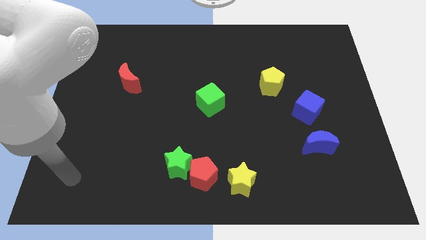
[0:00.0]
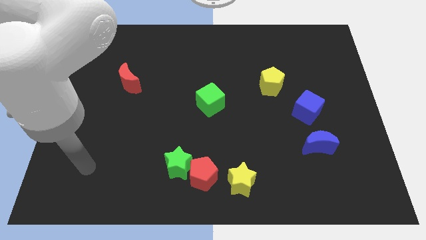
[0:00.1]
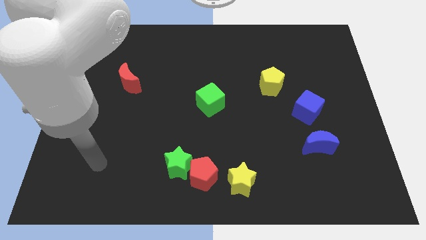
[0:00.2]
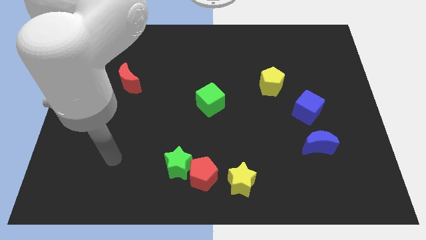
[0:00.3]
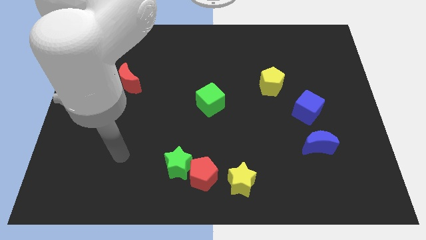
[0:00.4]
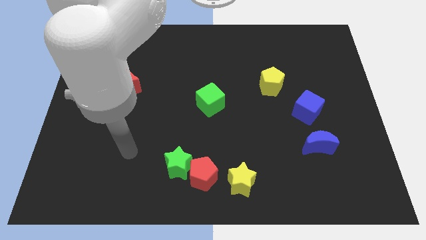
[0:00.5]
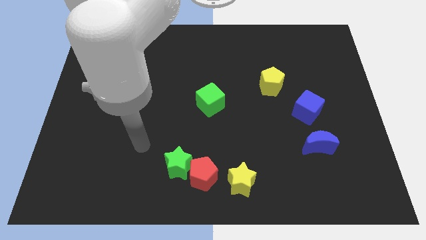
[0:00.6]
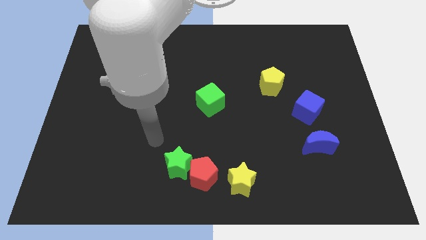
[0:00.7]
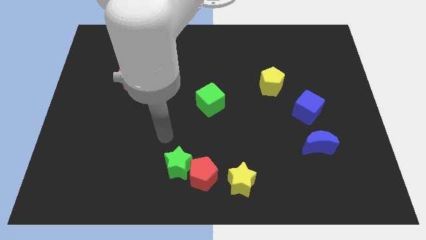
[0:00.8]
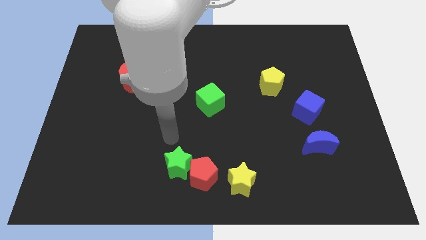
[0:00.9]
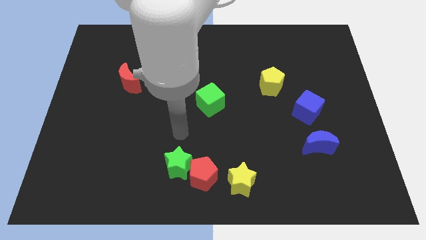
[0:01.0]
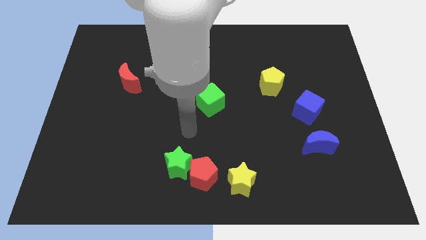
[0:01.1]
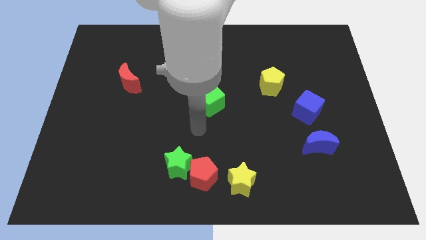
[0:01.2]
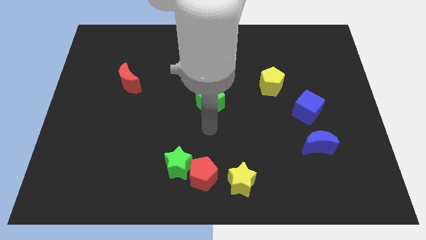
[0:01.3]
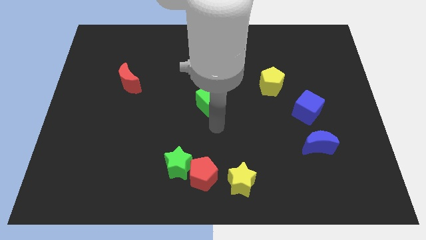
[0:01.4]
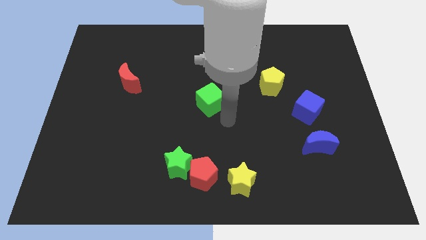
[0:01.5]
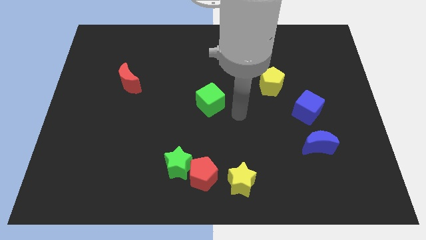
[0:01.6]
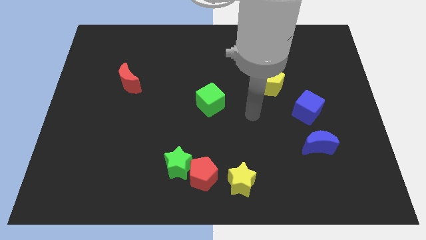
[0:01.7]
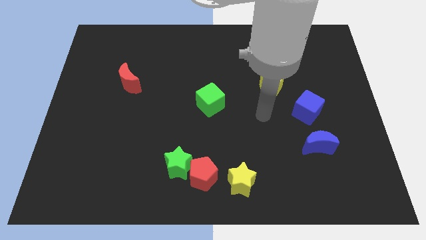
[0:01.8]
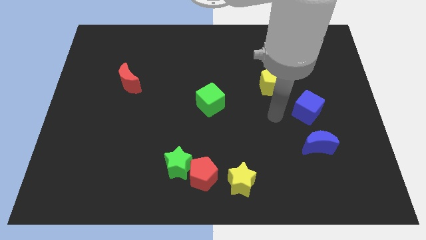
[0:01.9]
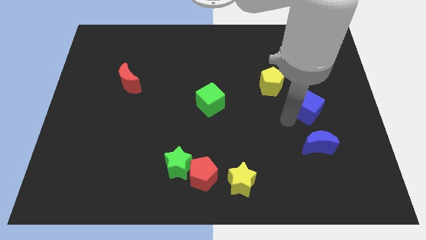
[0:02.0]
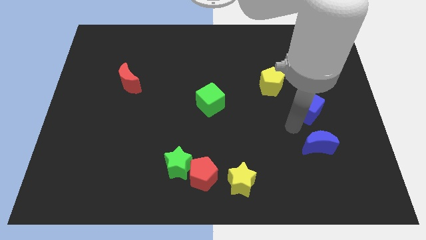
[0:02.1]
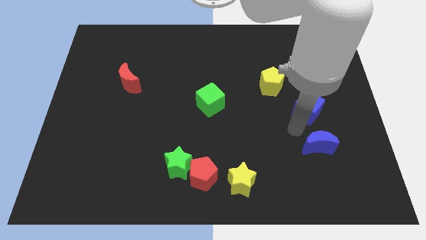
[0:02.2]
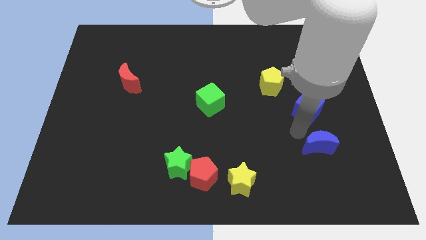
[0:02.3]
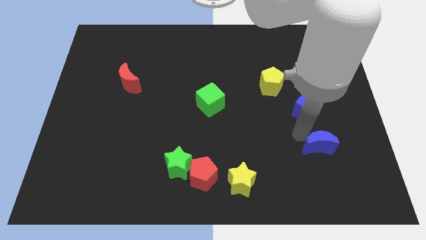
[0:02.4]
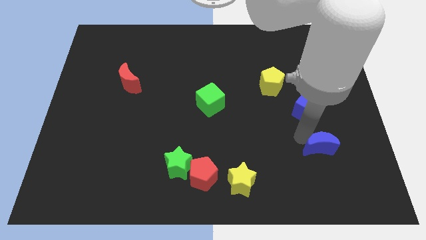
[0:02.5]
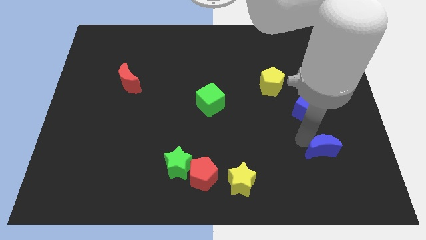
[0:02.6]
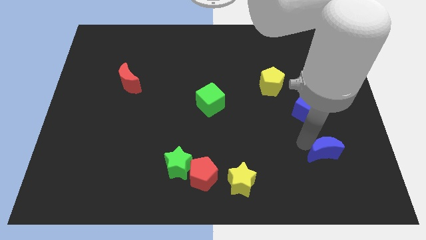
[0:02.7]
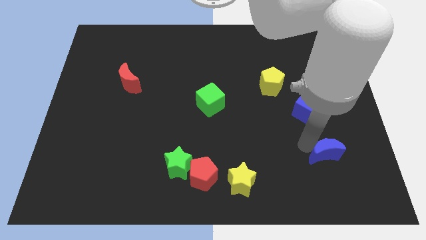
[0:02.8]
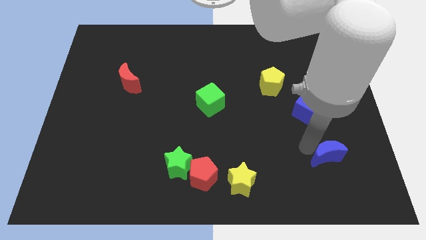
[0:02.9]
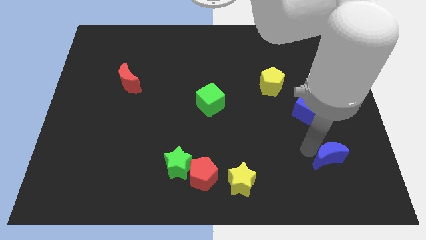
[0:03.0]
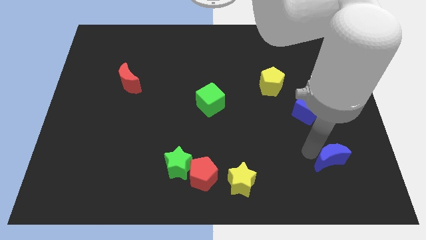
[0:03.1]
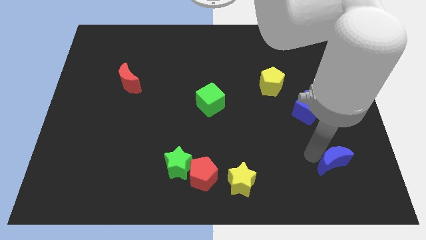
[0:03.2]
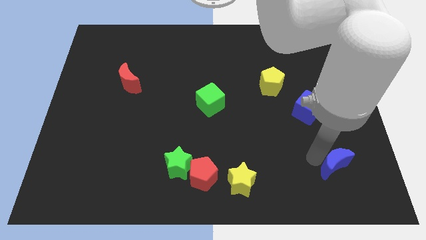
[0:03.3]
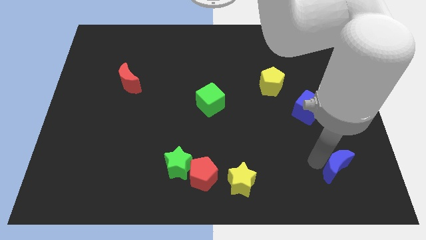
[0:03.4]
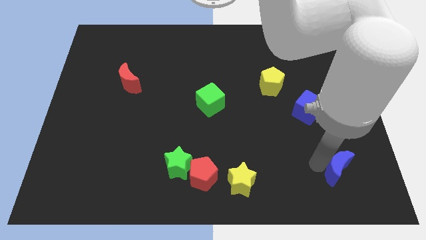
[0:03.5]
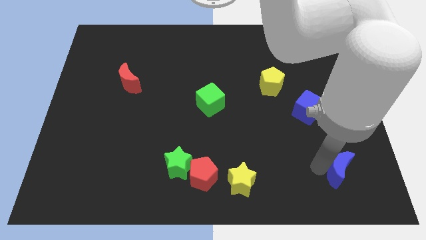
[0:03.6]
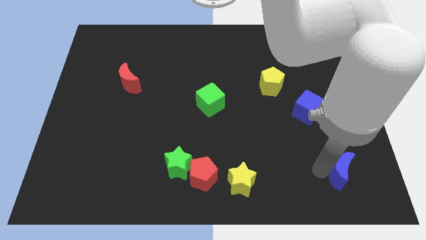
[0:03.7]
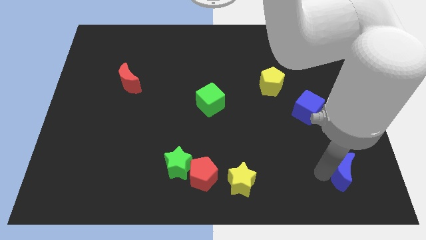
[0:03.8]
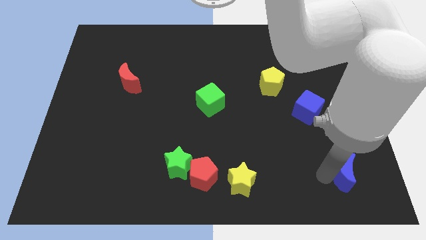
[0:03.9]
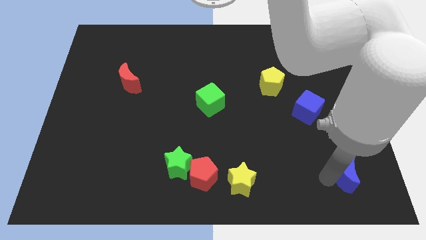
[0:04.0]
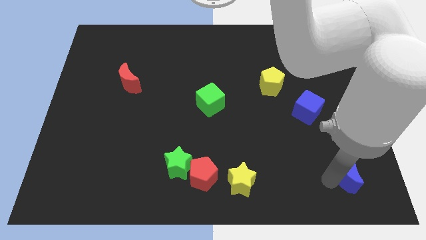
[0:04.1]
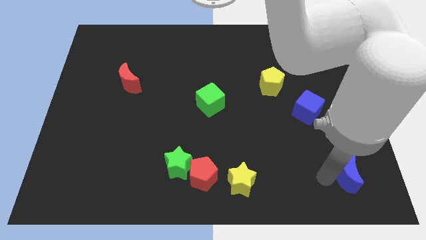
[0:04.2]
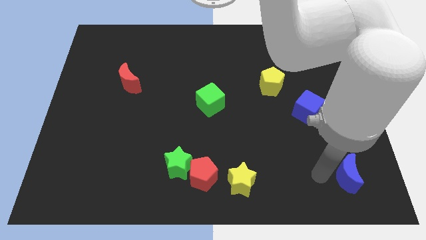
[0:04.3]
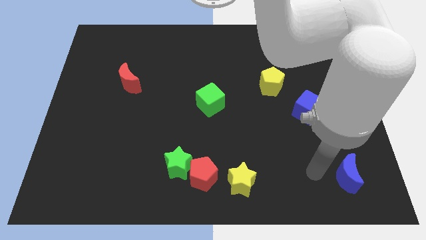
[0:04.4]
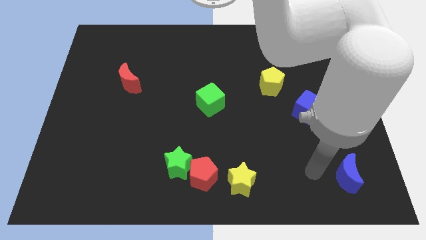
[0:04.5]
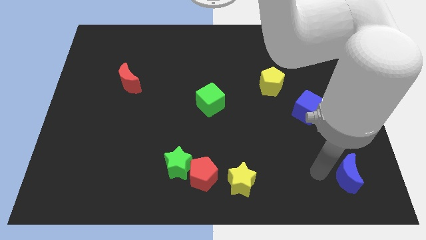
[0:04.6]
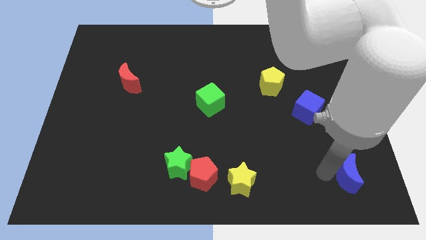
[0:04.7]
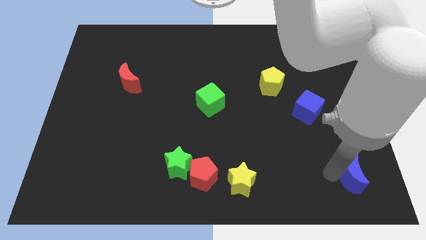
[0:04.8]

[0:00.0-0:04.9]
move the blue moon to the bottom right

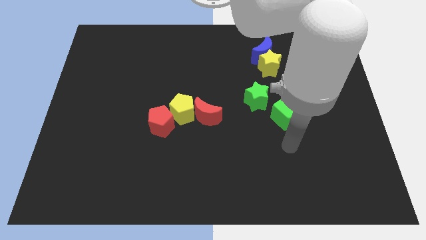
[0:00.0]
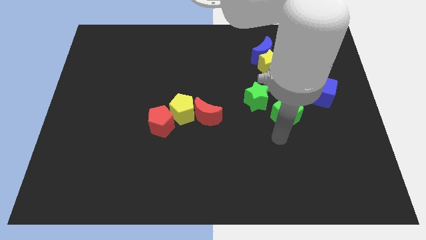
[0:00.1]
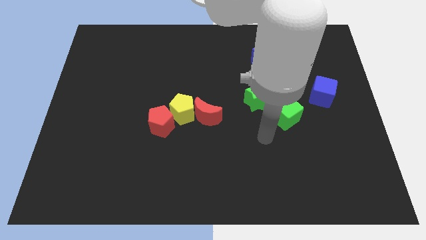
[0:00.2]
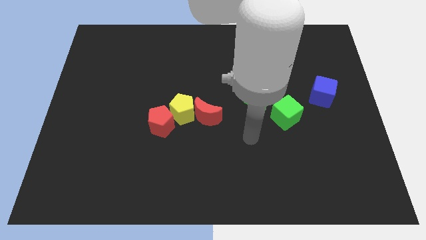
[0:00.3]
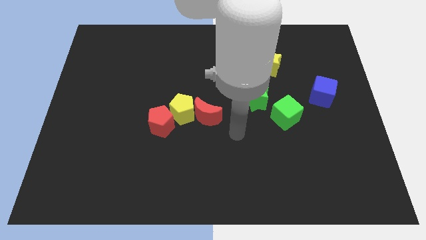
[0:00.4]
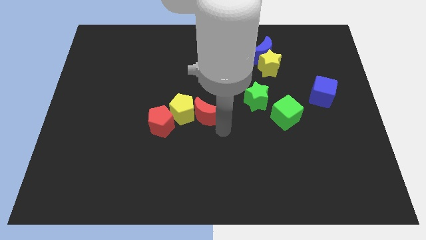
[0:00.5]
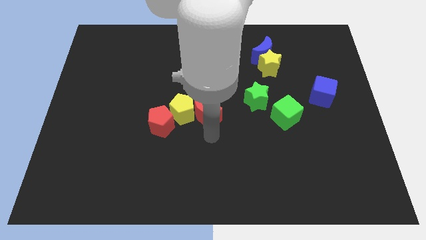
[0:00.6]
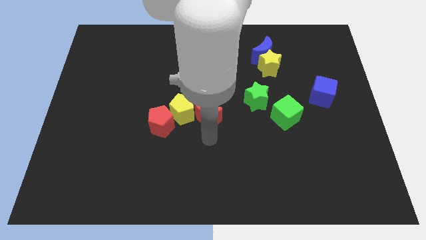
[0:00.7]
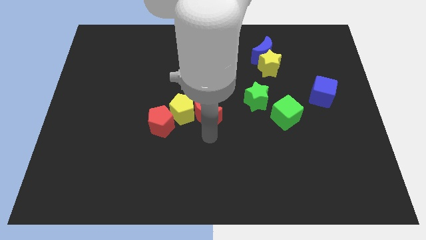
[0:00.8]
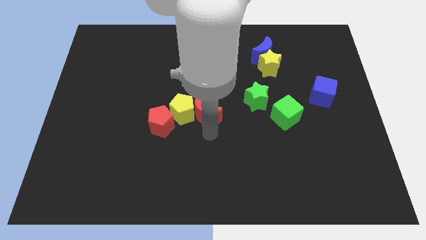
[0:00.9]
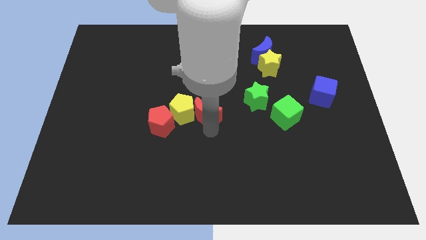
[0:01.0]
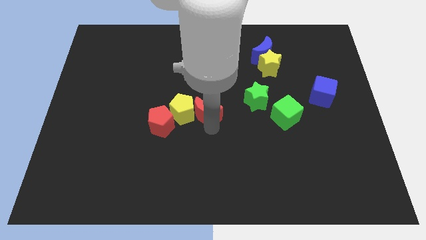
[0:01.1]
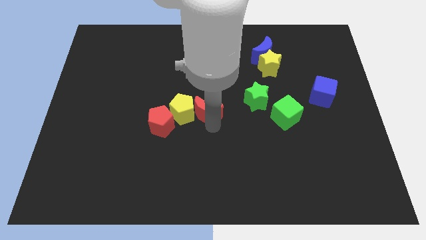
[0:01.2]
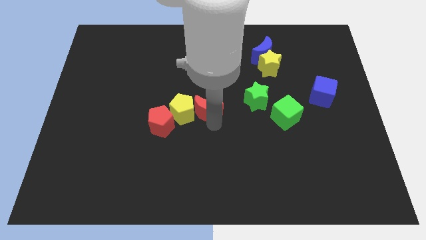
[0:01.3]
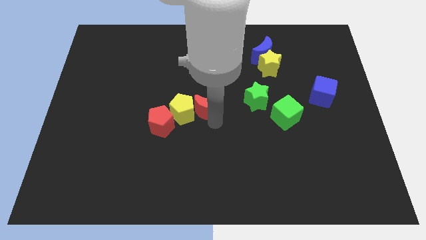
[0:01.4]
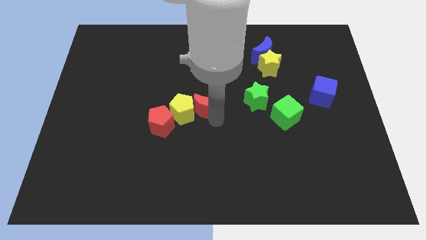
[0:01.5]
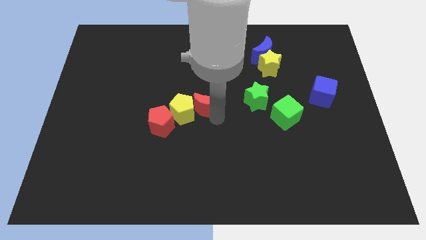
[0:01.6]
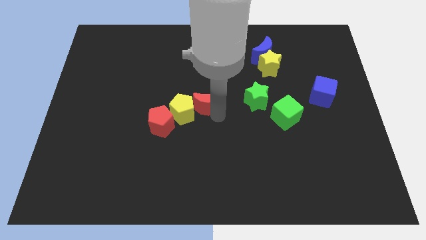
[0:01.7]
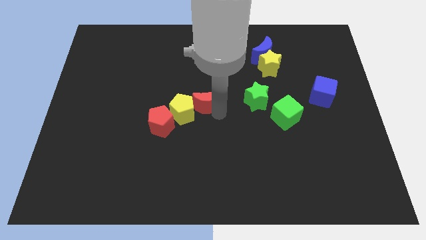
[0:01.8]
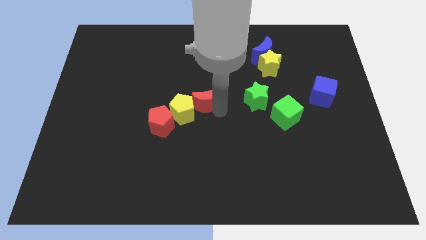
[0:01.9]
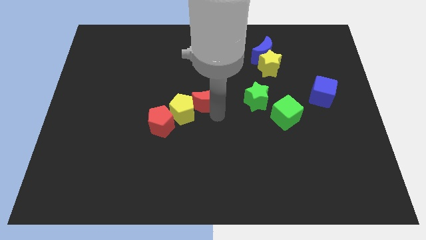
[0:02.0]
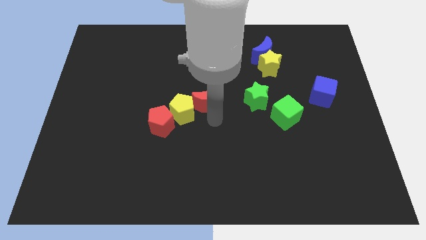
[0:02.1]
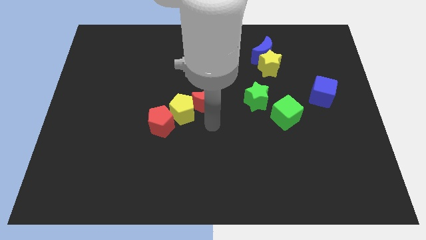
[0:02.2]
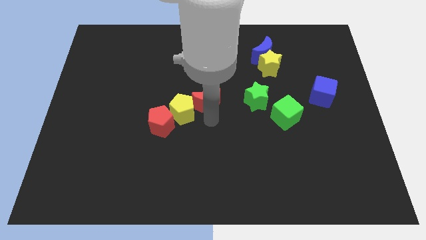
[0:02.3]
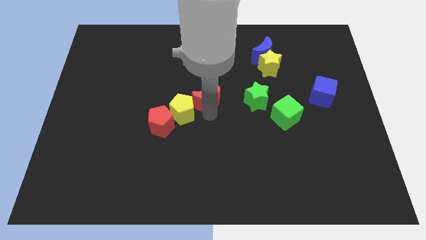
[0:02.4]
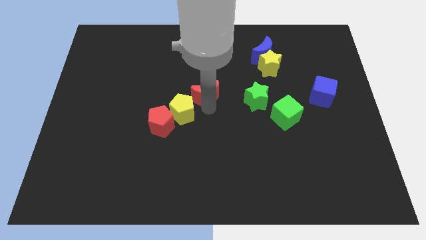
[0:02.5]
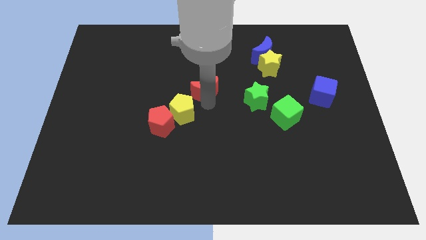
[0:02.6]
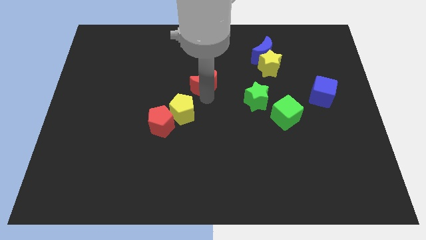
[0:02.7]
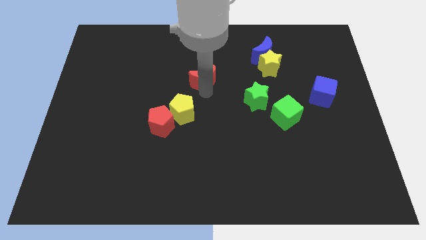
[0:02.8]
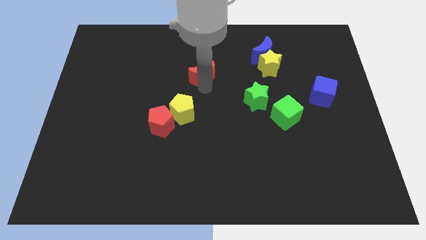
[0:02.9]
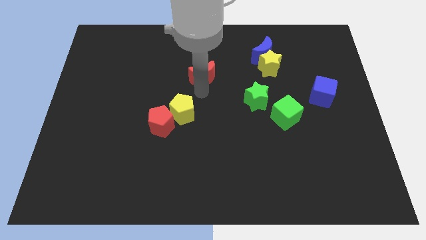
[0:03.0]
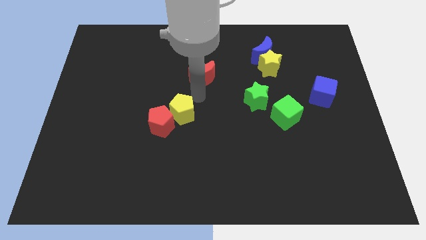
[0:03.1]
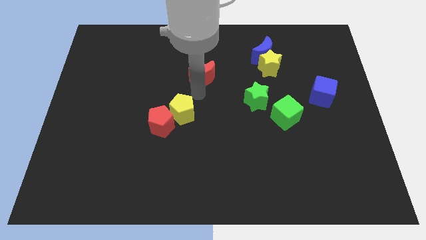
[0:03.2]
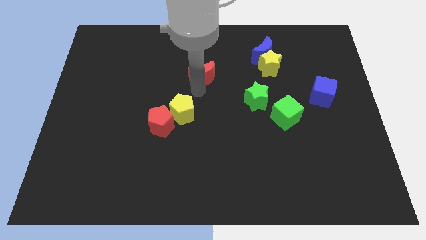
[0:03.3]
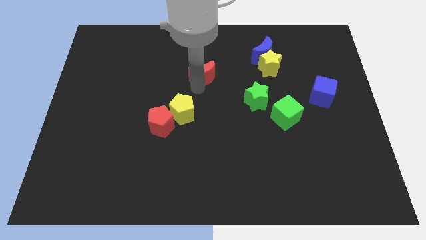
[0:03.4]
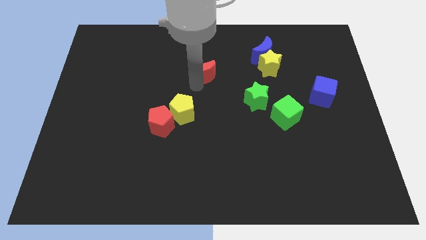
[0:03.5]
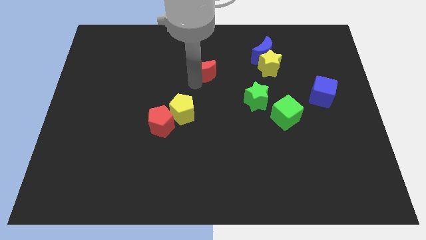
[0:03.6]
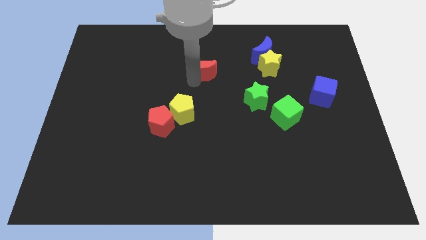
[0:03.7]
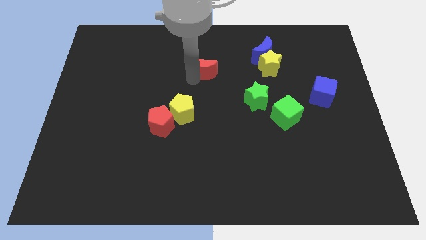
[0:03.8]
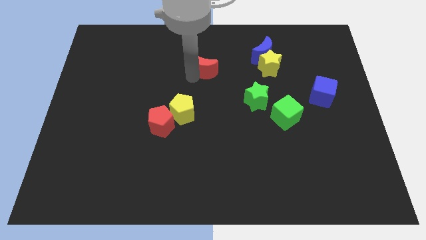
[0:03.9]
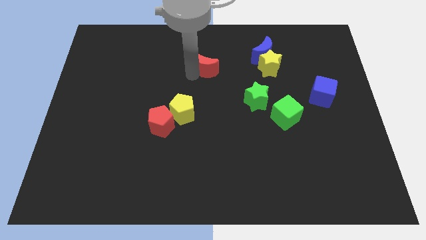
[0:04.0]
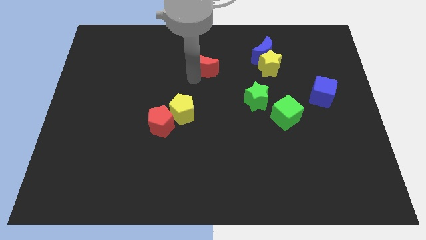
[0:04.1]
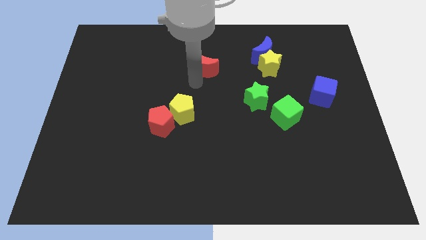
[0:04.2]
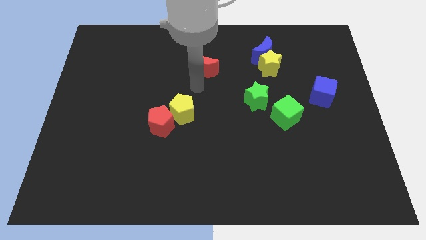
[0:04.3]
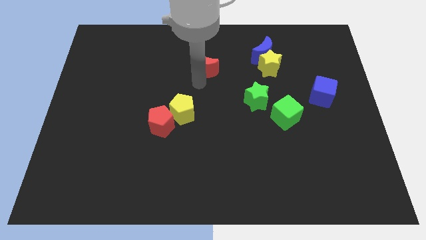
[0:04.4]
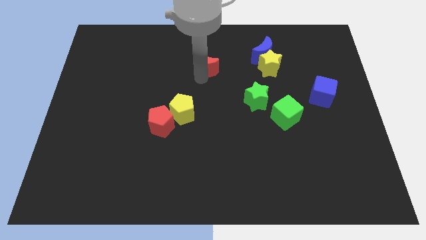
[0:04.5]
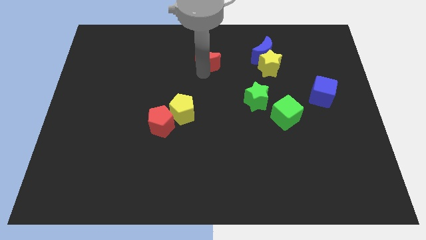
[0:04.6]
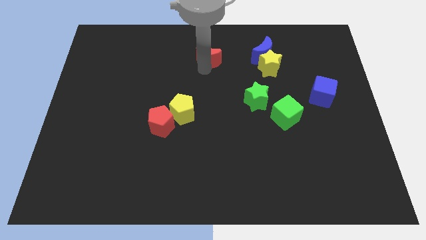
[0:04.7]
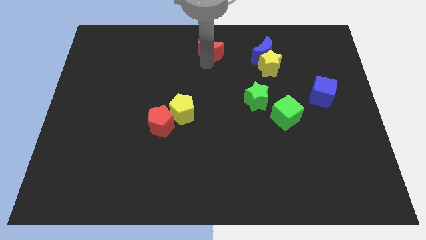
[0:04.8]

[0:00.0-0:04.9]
put the red moon to the top
